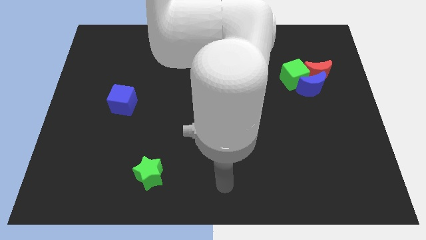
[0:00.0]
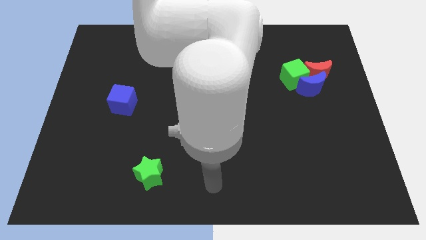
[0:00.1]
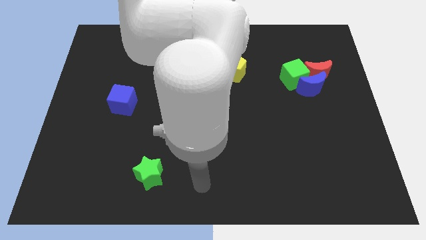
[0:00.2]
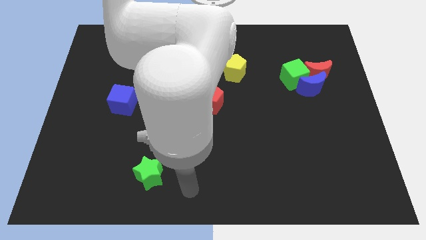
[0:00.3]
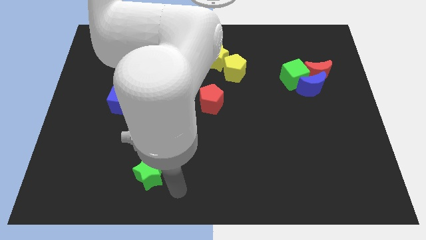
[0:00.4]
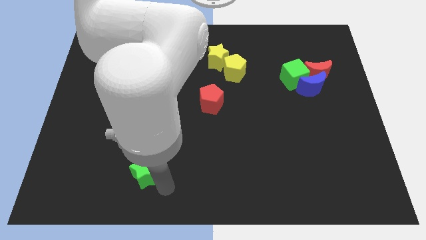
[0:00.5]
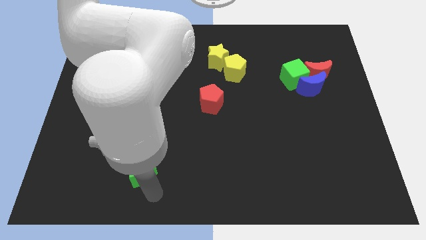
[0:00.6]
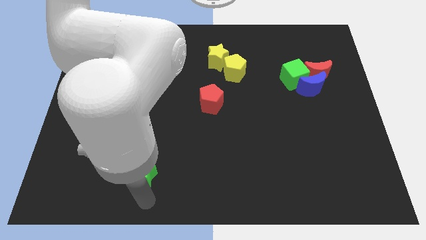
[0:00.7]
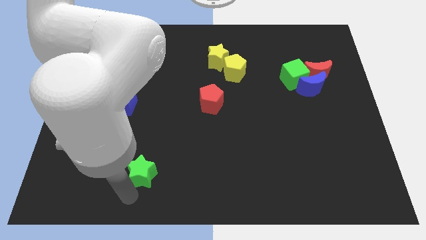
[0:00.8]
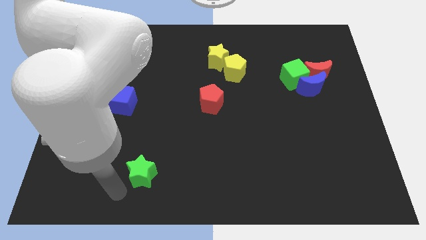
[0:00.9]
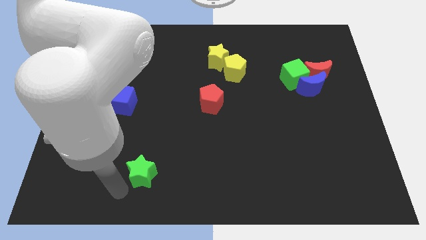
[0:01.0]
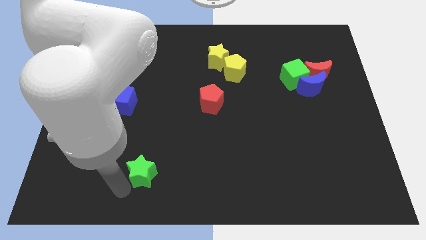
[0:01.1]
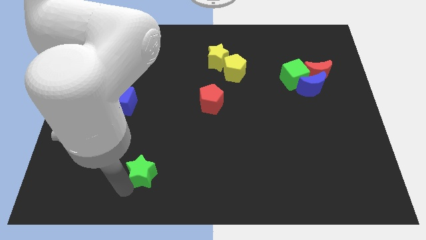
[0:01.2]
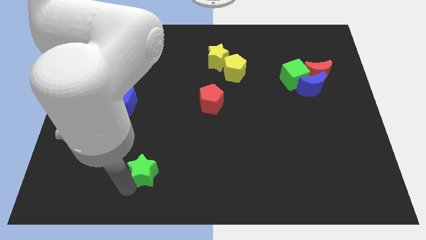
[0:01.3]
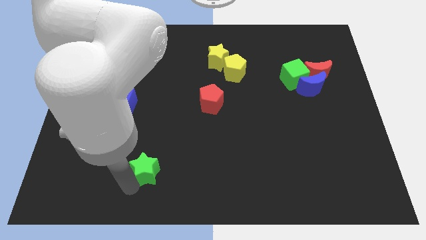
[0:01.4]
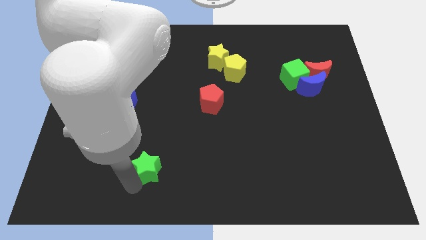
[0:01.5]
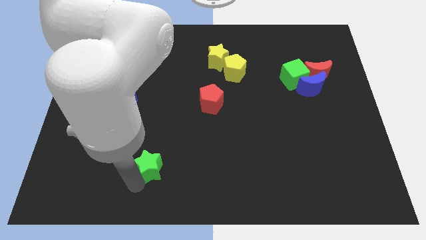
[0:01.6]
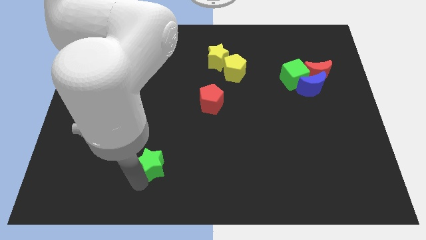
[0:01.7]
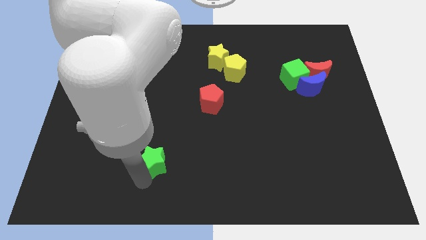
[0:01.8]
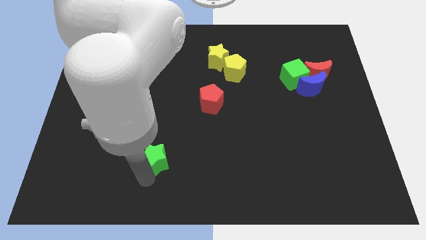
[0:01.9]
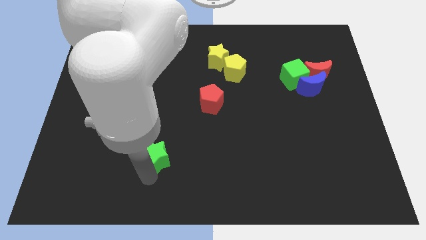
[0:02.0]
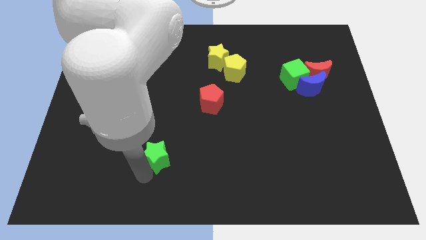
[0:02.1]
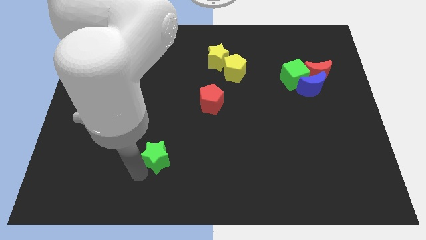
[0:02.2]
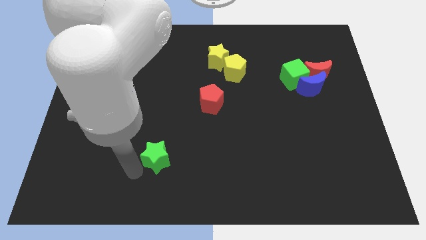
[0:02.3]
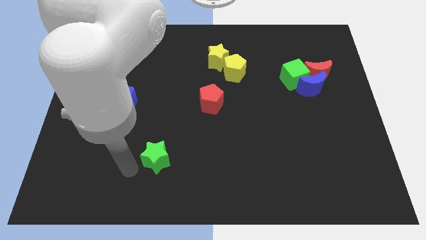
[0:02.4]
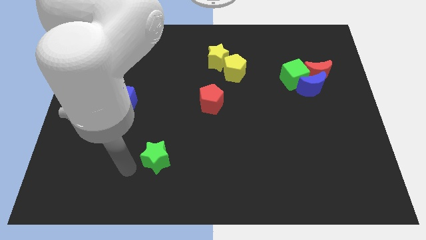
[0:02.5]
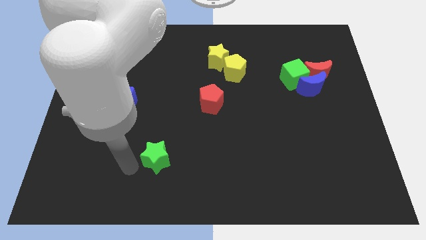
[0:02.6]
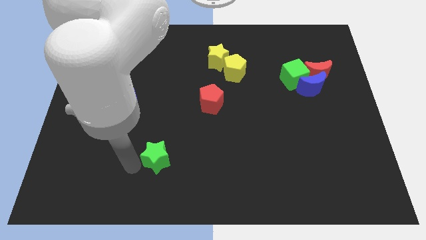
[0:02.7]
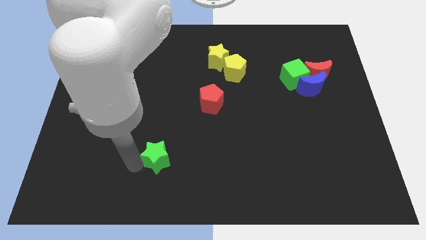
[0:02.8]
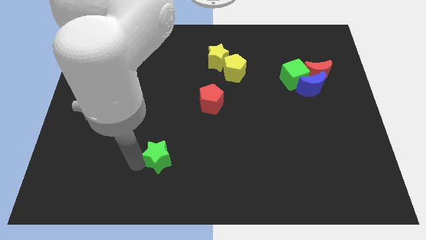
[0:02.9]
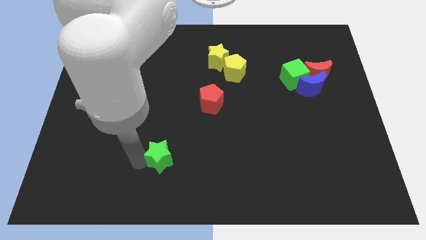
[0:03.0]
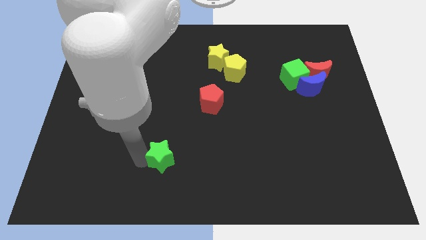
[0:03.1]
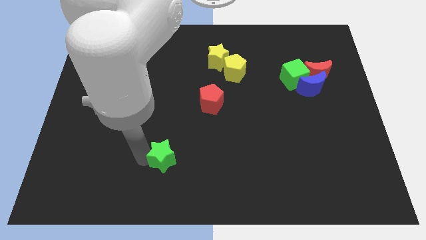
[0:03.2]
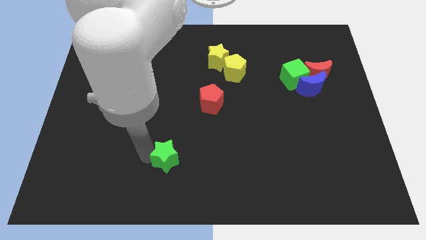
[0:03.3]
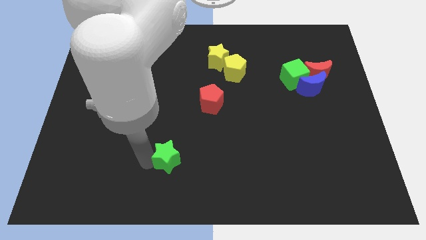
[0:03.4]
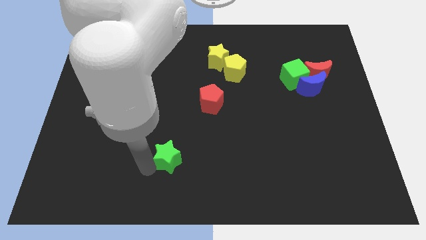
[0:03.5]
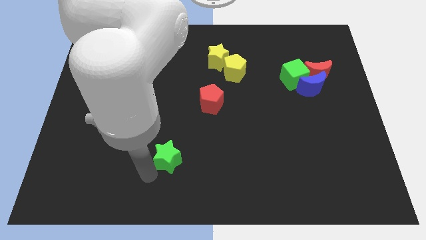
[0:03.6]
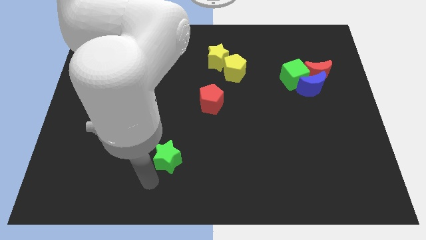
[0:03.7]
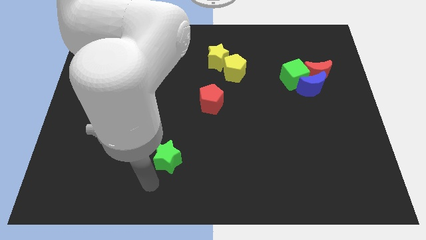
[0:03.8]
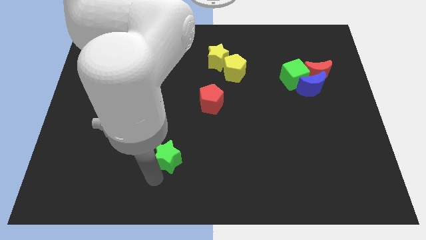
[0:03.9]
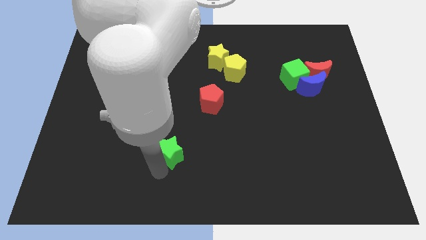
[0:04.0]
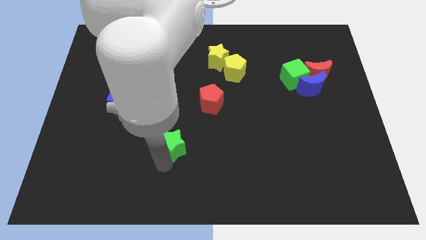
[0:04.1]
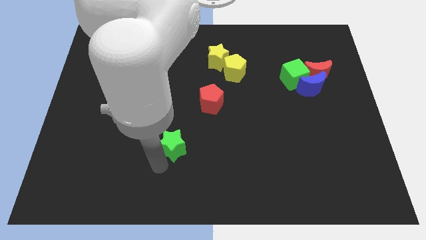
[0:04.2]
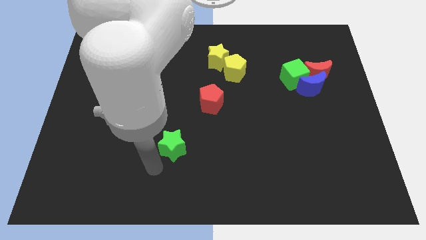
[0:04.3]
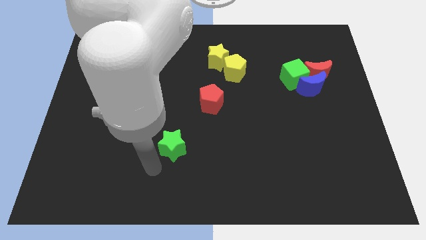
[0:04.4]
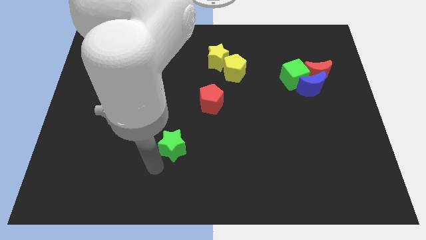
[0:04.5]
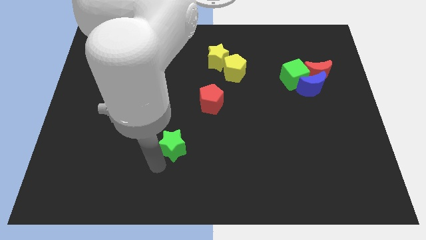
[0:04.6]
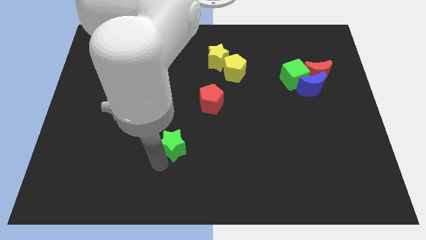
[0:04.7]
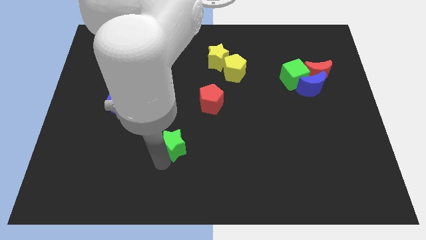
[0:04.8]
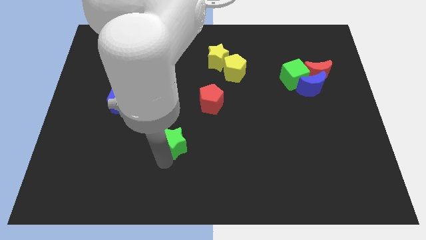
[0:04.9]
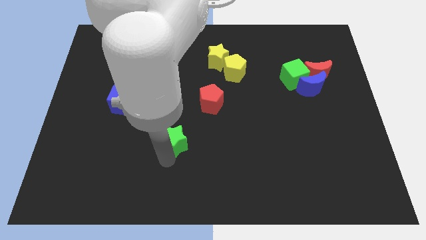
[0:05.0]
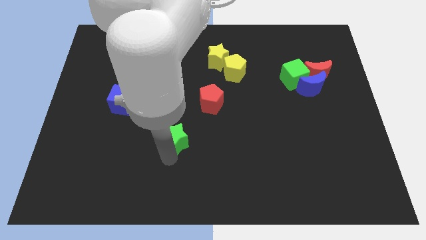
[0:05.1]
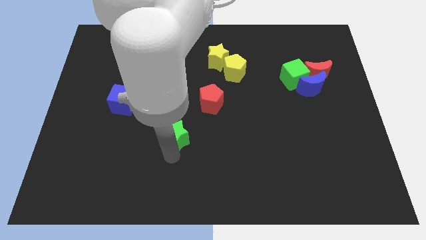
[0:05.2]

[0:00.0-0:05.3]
put the green star to the bottom left of the red pentagon

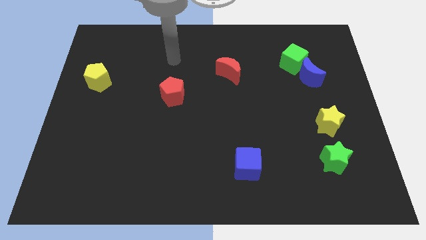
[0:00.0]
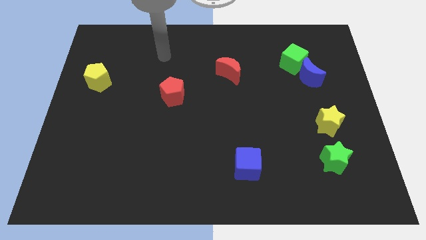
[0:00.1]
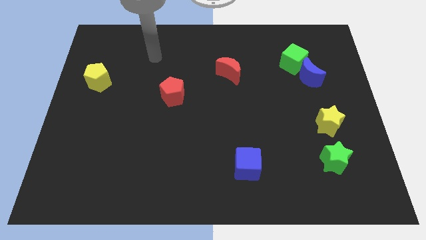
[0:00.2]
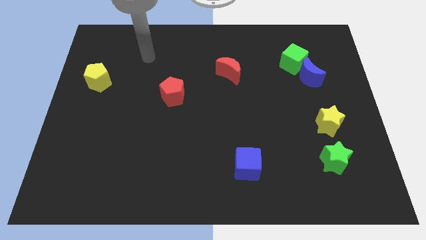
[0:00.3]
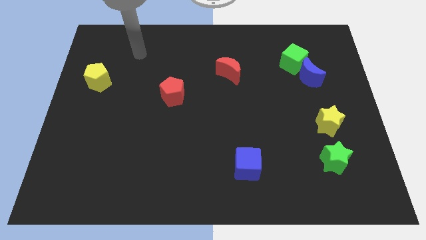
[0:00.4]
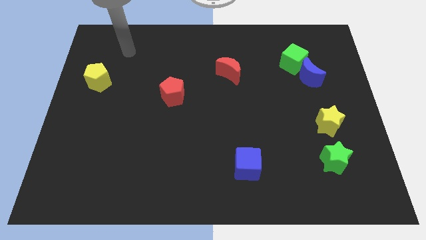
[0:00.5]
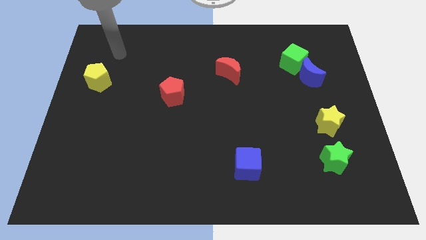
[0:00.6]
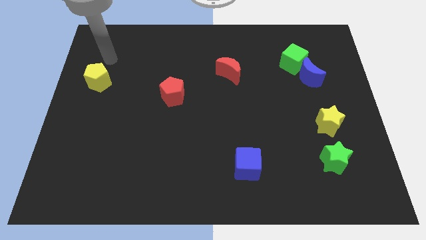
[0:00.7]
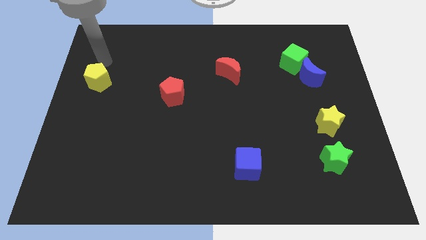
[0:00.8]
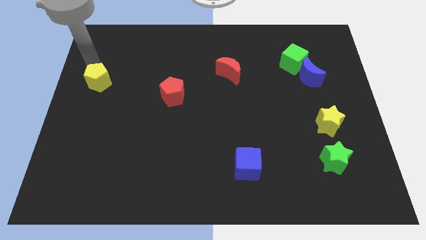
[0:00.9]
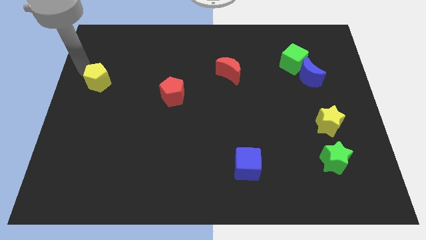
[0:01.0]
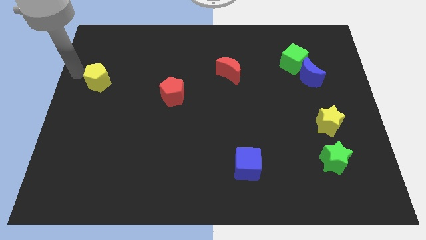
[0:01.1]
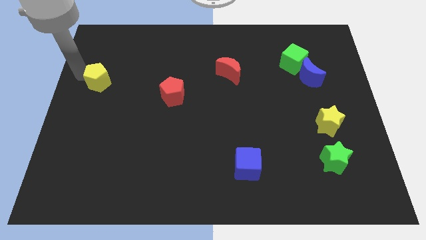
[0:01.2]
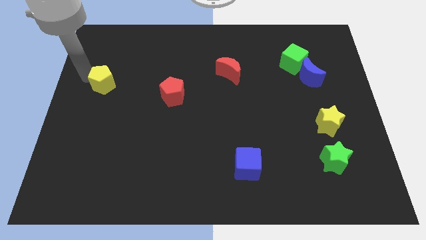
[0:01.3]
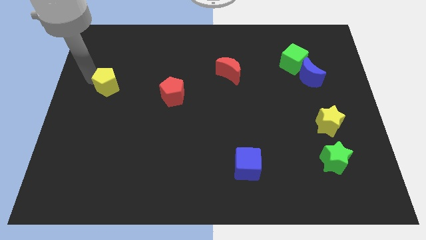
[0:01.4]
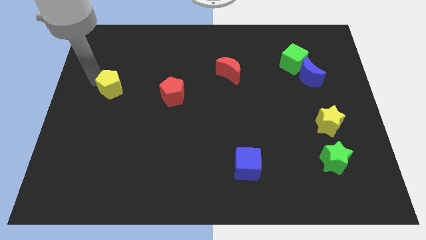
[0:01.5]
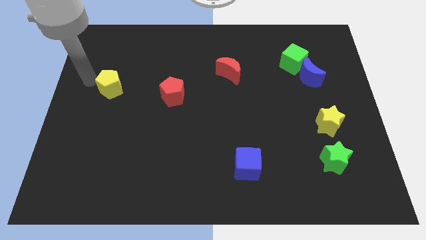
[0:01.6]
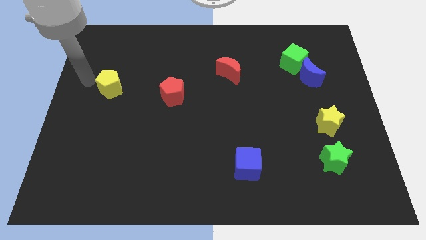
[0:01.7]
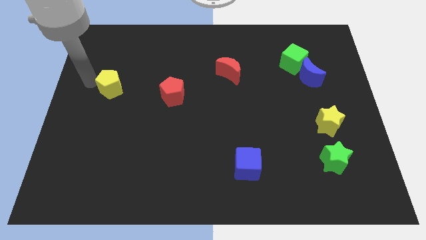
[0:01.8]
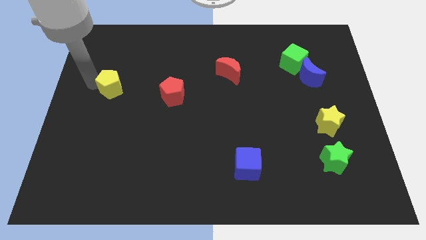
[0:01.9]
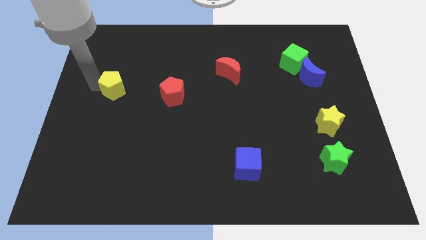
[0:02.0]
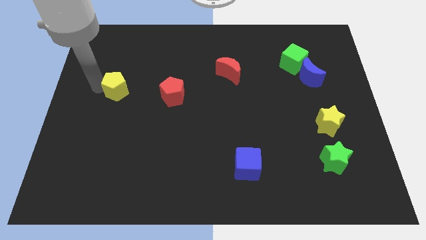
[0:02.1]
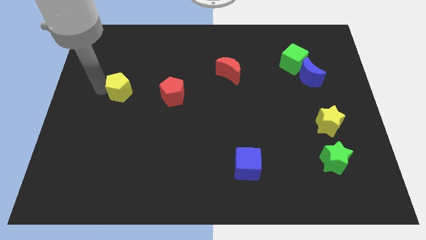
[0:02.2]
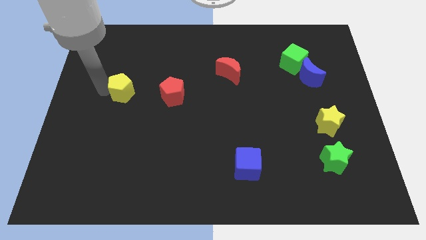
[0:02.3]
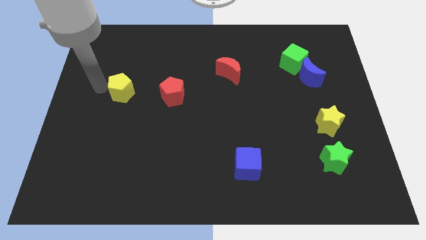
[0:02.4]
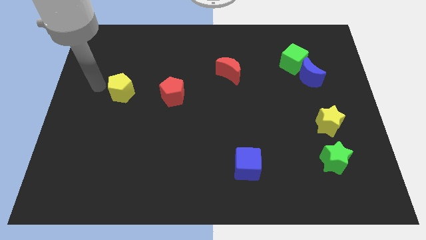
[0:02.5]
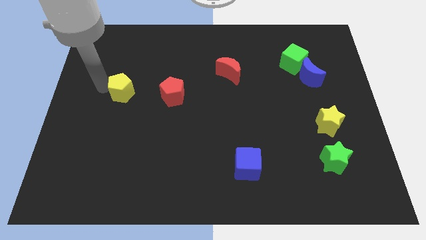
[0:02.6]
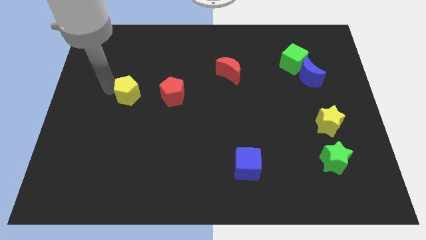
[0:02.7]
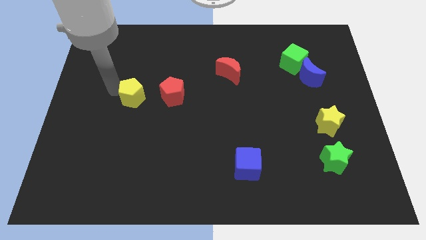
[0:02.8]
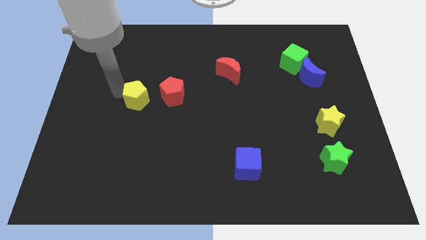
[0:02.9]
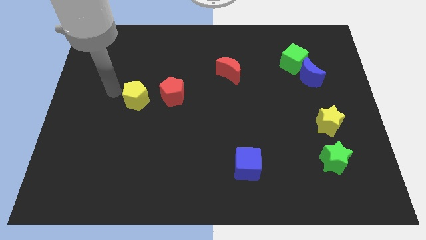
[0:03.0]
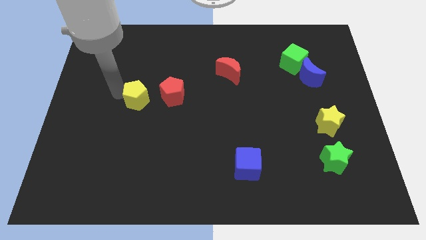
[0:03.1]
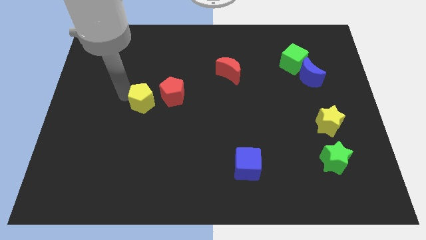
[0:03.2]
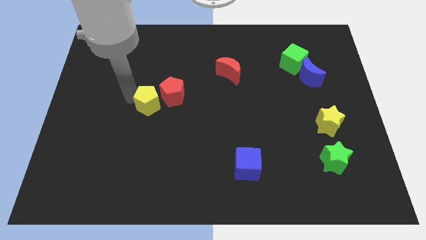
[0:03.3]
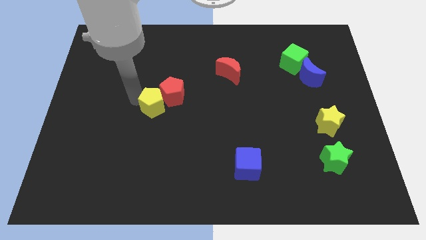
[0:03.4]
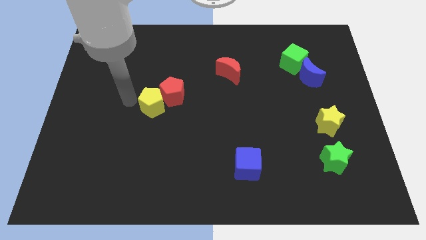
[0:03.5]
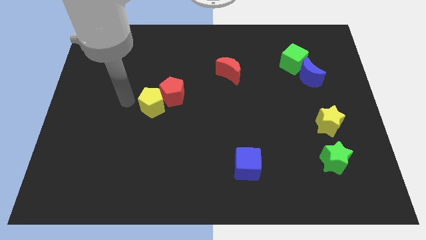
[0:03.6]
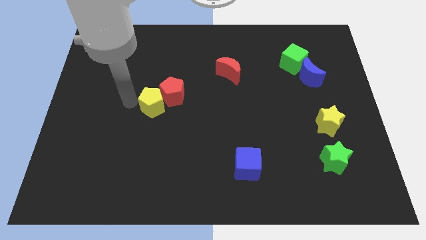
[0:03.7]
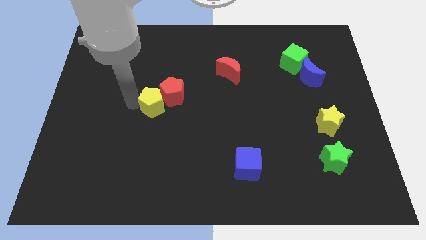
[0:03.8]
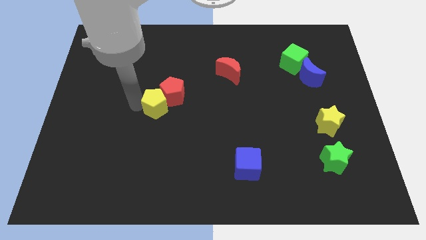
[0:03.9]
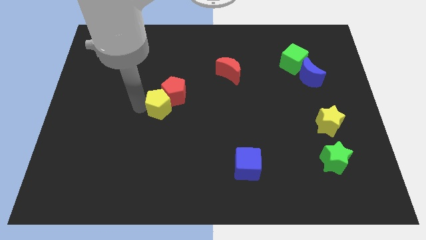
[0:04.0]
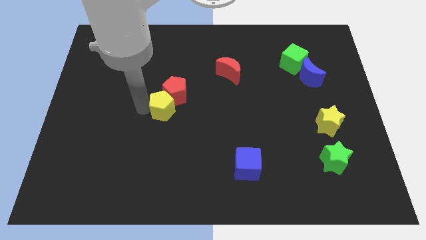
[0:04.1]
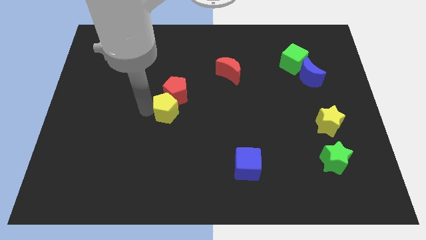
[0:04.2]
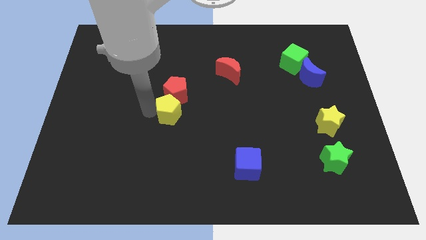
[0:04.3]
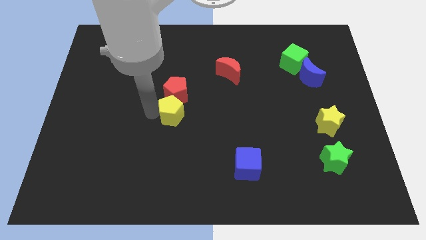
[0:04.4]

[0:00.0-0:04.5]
put the yellow pentagon to the bottom right of the red pentagon
